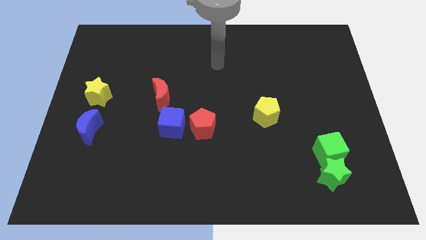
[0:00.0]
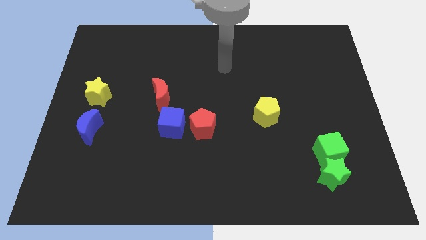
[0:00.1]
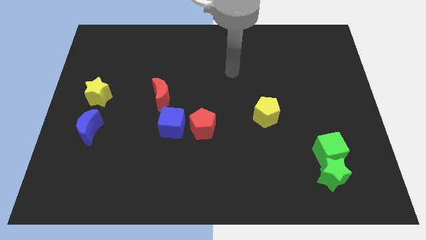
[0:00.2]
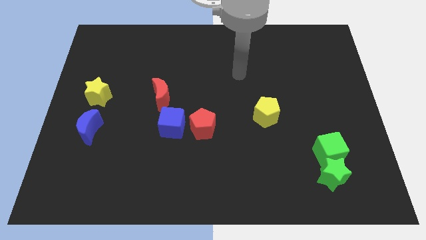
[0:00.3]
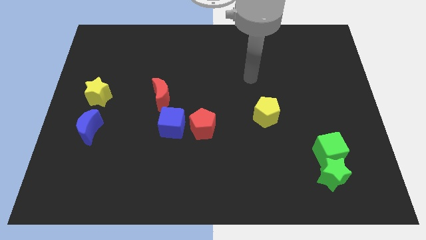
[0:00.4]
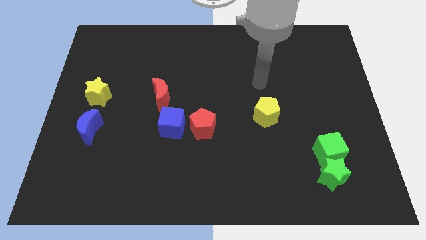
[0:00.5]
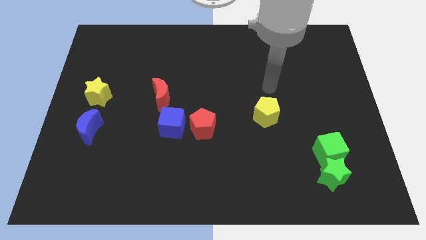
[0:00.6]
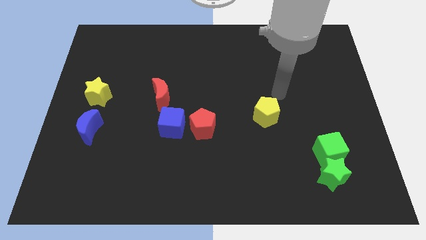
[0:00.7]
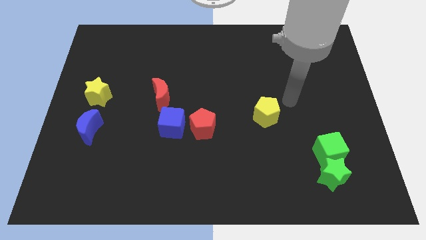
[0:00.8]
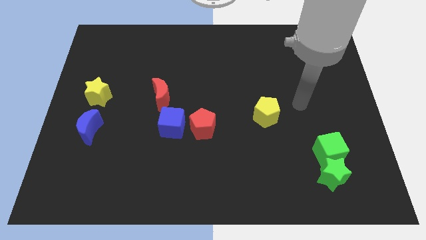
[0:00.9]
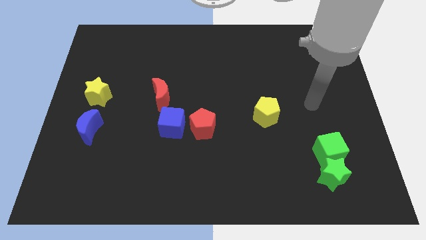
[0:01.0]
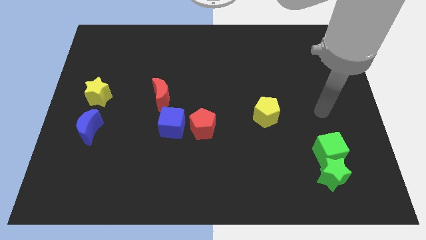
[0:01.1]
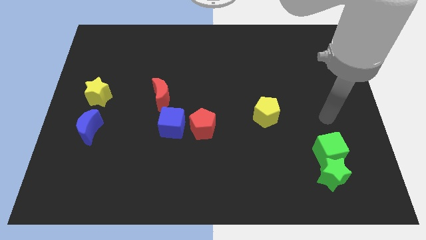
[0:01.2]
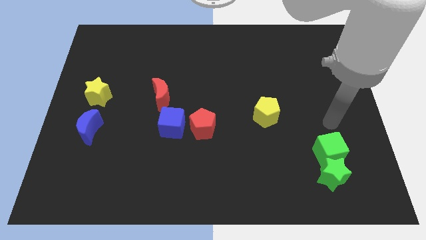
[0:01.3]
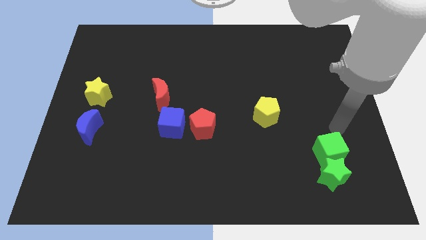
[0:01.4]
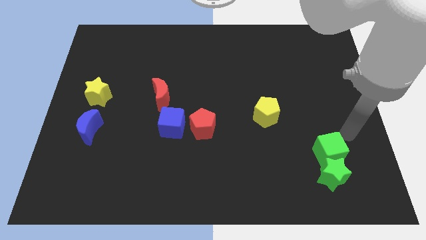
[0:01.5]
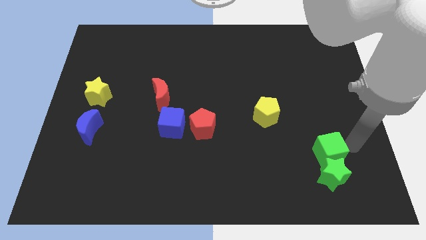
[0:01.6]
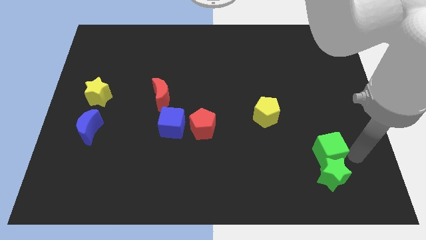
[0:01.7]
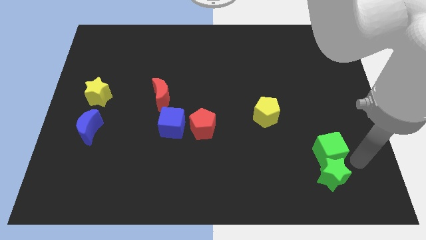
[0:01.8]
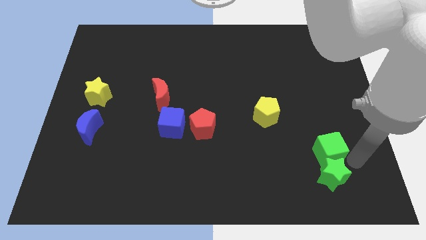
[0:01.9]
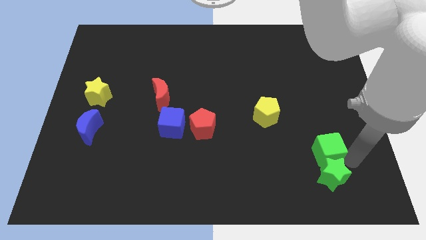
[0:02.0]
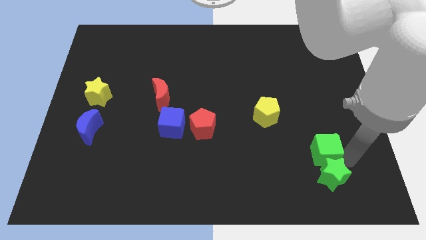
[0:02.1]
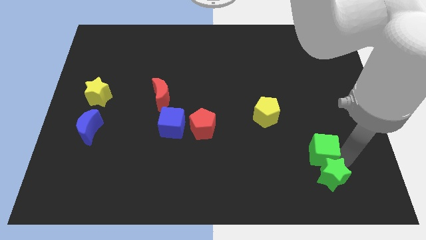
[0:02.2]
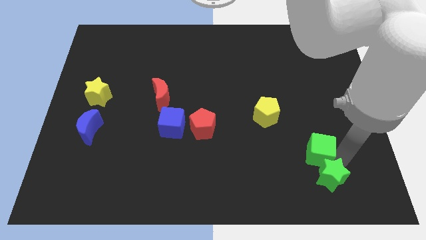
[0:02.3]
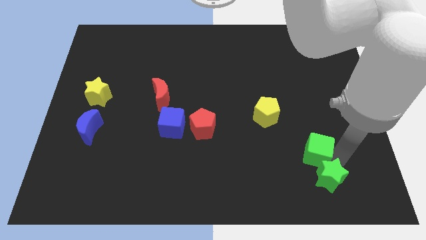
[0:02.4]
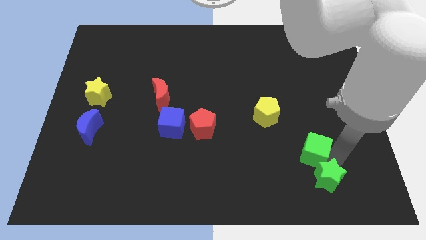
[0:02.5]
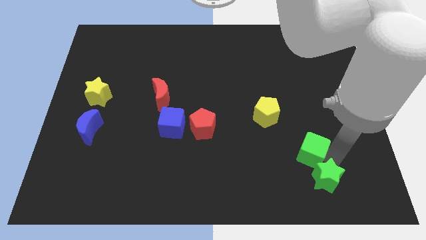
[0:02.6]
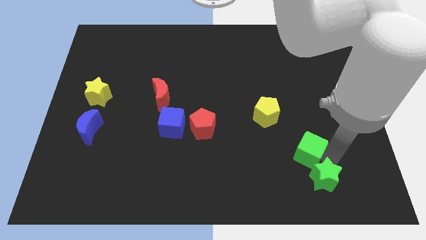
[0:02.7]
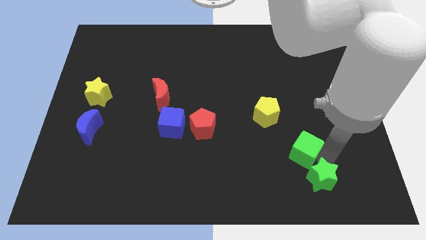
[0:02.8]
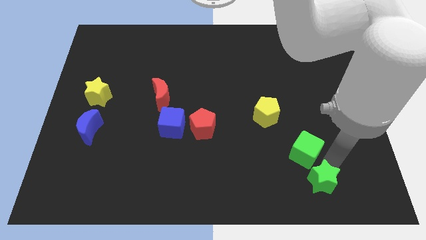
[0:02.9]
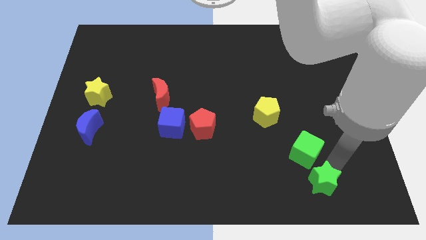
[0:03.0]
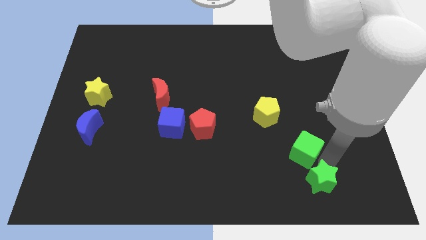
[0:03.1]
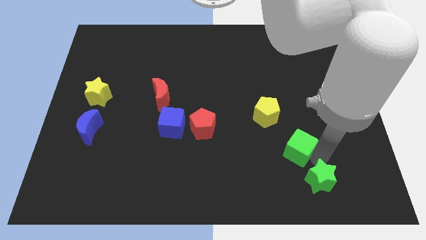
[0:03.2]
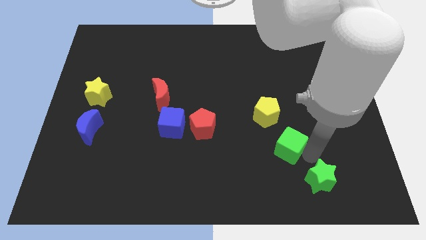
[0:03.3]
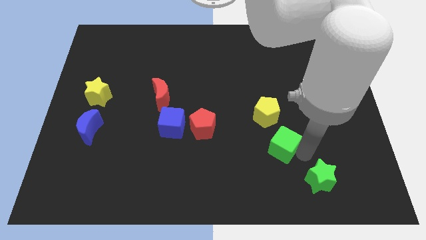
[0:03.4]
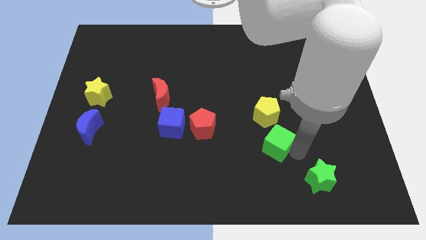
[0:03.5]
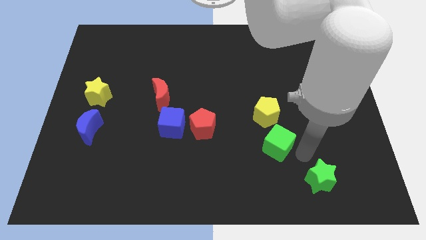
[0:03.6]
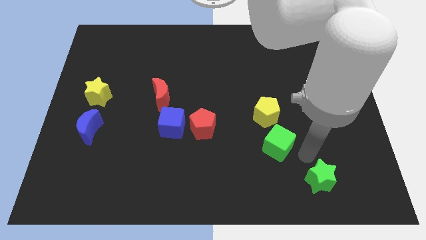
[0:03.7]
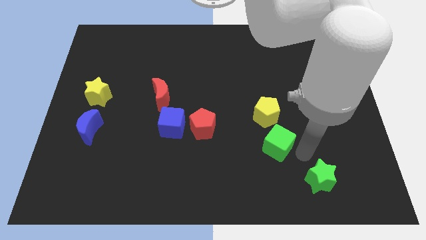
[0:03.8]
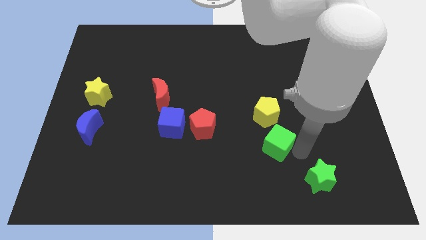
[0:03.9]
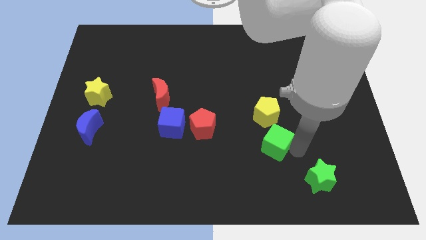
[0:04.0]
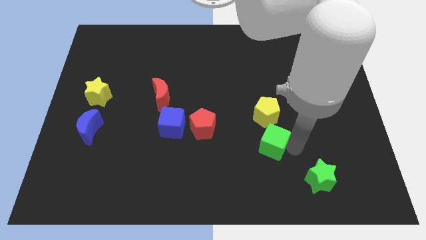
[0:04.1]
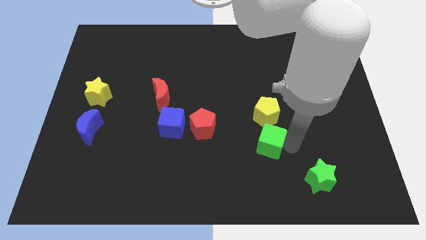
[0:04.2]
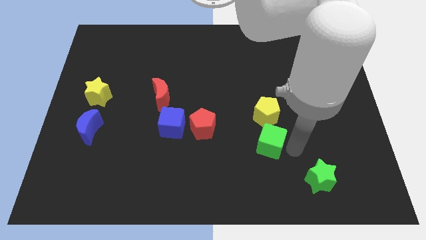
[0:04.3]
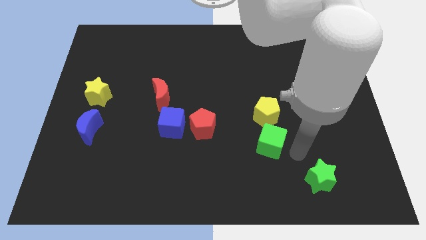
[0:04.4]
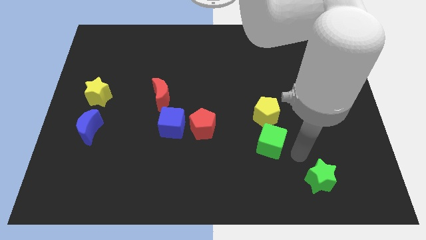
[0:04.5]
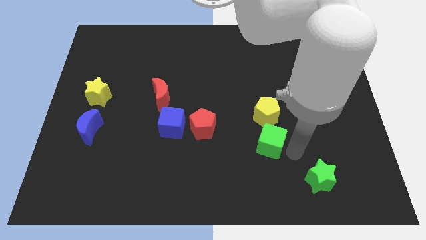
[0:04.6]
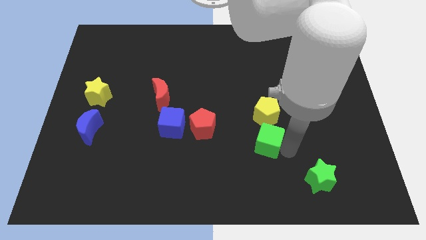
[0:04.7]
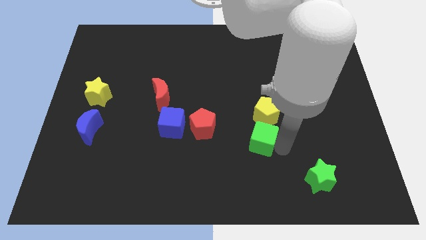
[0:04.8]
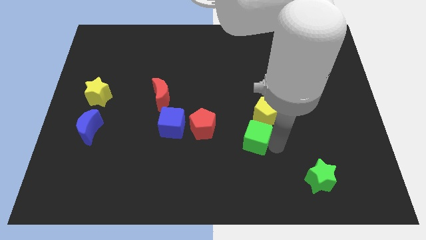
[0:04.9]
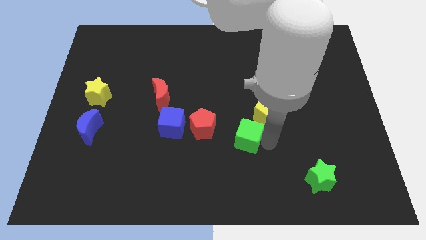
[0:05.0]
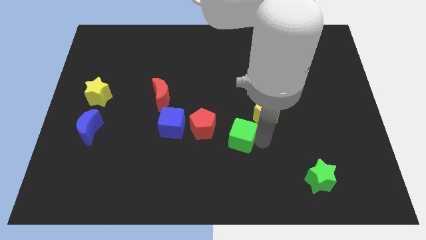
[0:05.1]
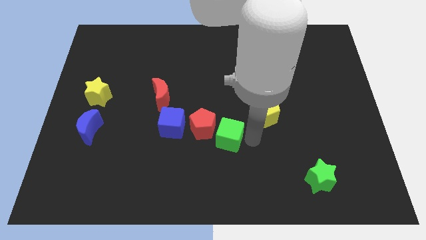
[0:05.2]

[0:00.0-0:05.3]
slide the green cube next to the red pentagon

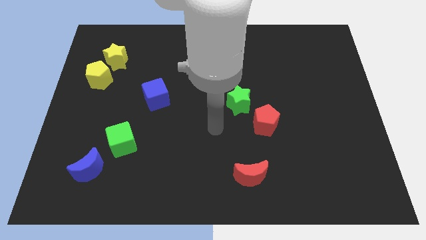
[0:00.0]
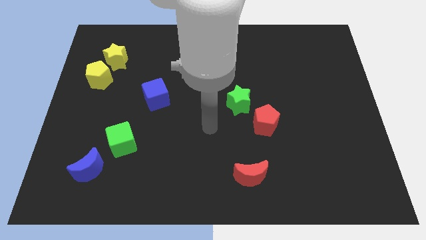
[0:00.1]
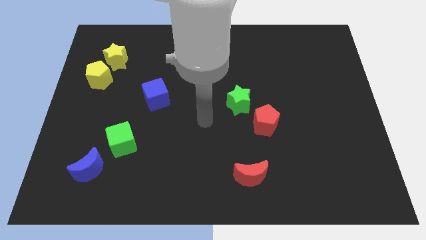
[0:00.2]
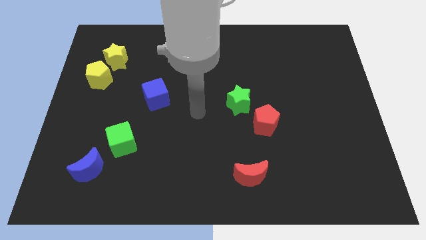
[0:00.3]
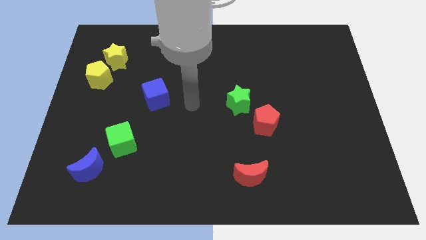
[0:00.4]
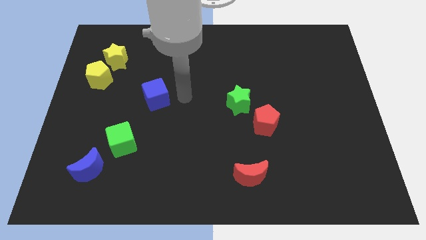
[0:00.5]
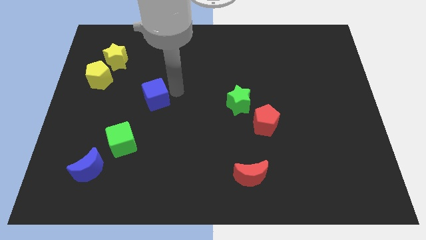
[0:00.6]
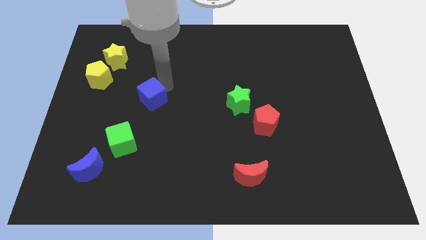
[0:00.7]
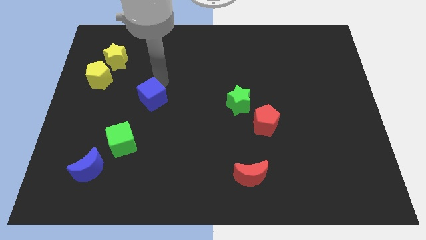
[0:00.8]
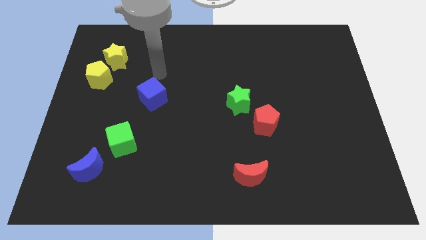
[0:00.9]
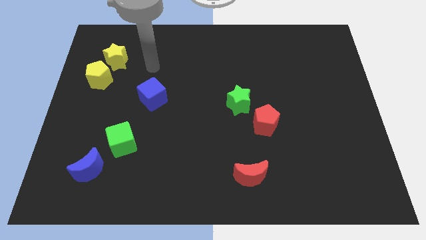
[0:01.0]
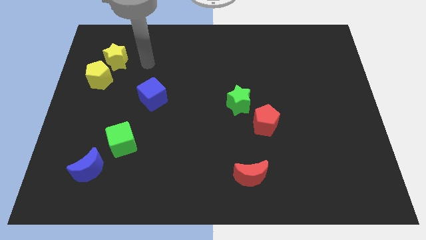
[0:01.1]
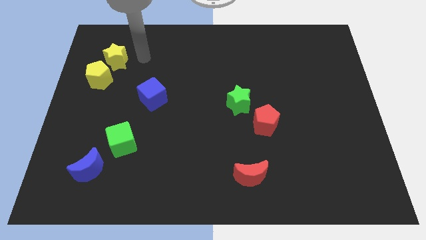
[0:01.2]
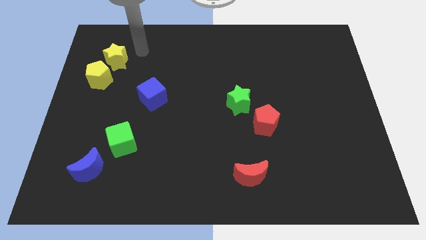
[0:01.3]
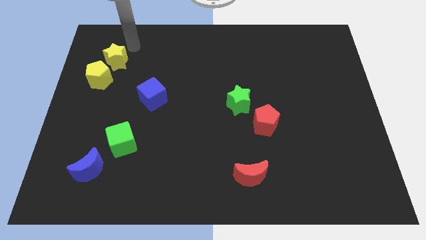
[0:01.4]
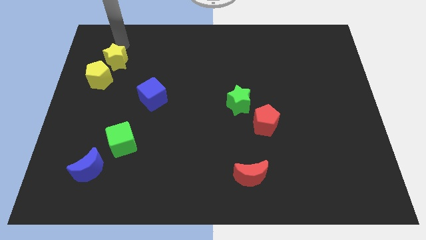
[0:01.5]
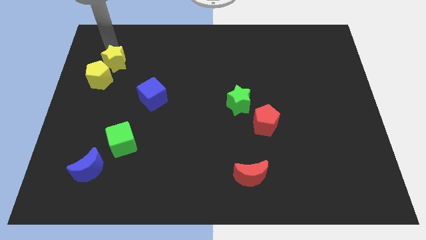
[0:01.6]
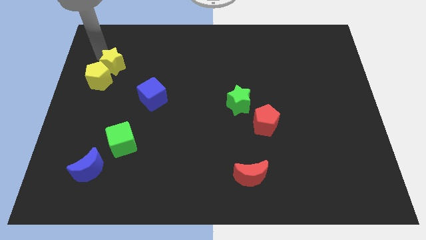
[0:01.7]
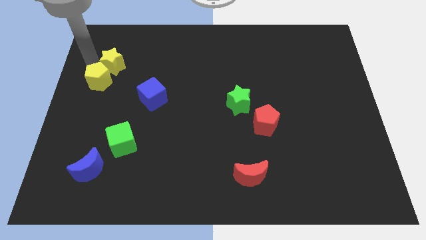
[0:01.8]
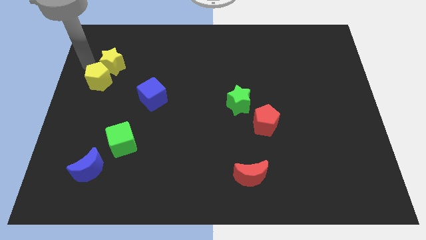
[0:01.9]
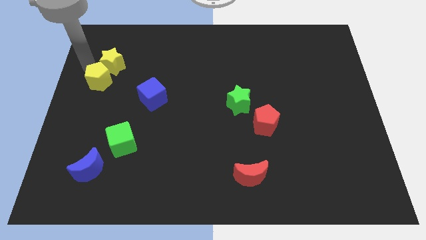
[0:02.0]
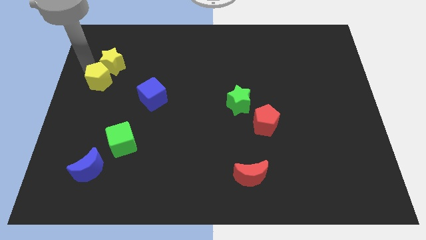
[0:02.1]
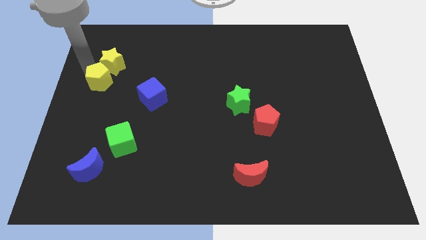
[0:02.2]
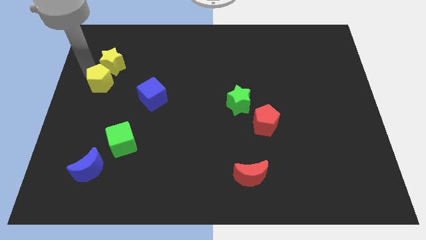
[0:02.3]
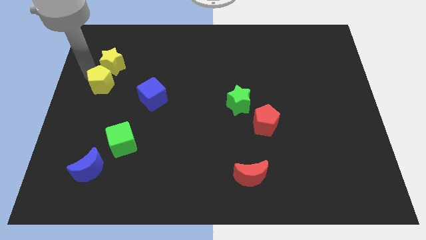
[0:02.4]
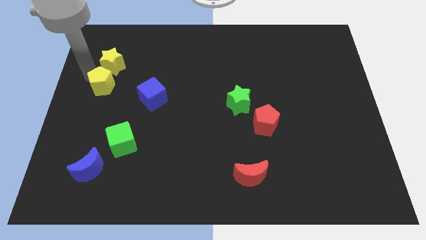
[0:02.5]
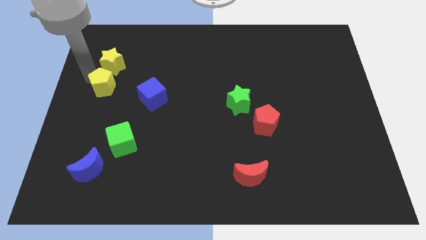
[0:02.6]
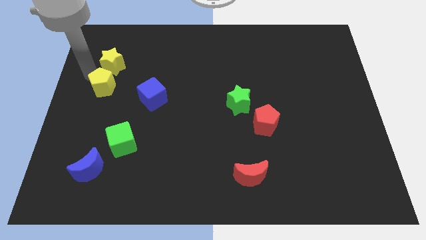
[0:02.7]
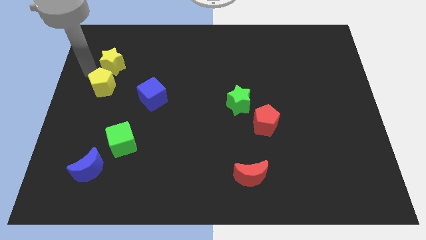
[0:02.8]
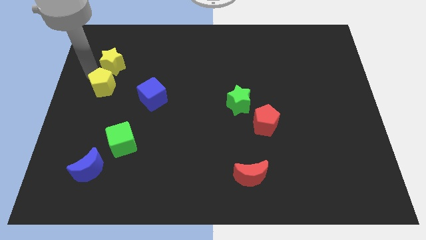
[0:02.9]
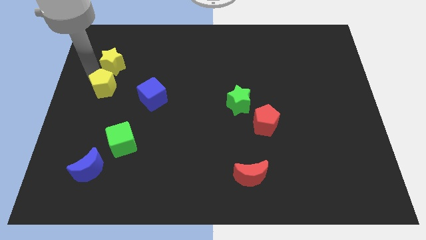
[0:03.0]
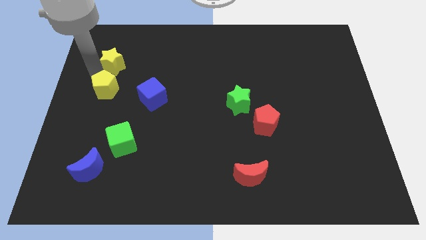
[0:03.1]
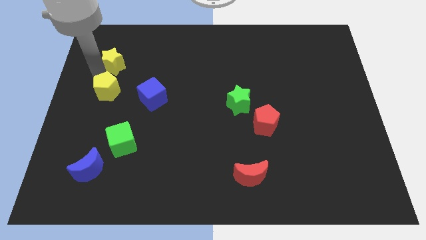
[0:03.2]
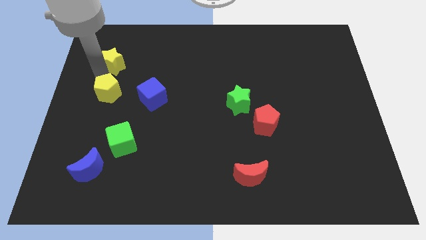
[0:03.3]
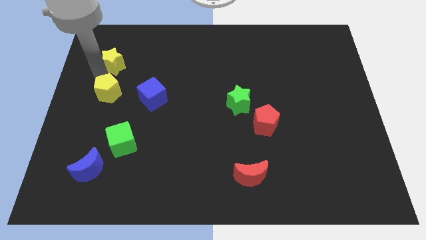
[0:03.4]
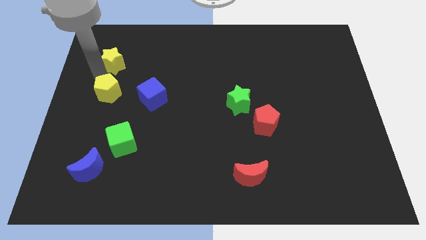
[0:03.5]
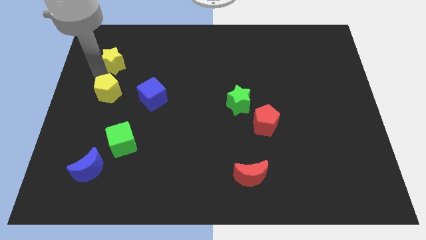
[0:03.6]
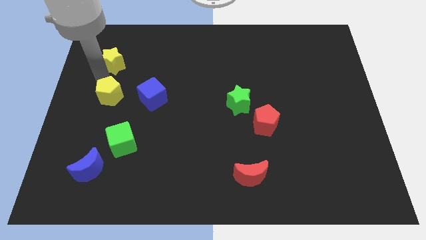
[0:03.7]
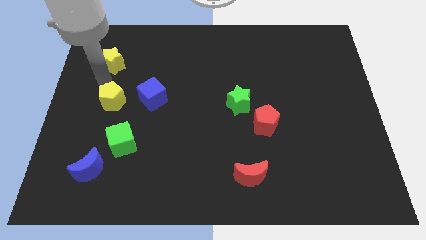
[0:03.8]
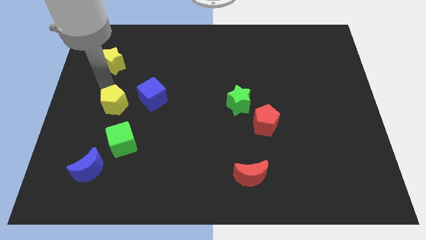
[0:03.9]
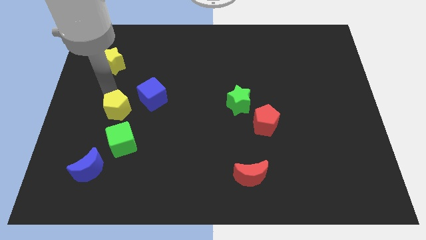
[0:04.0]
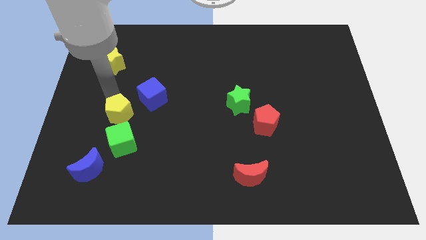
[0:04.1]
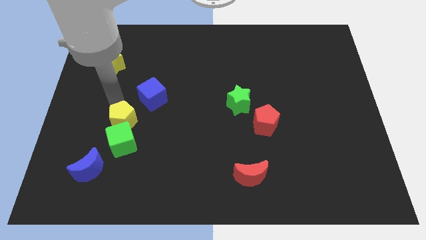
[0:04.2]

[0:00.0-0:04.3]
slide the yellow pentagon close to the green cube
